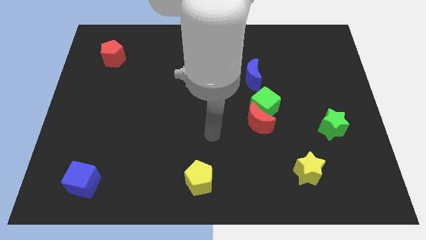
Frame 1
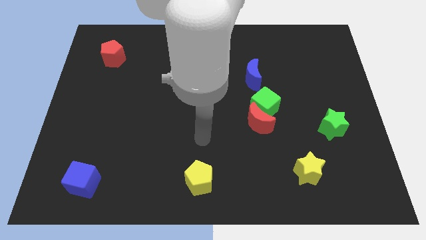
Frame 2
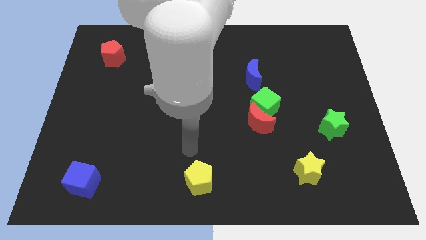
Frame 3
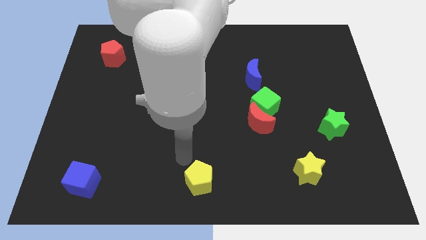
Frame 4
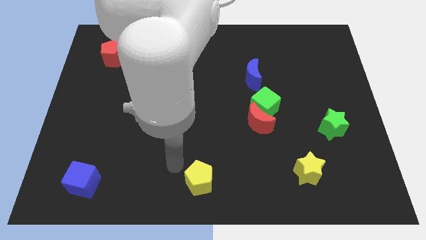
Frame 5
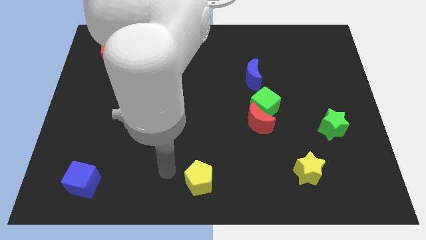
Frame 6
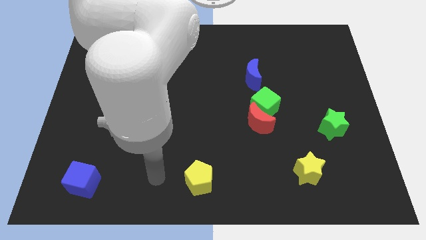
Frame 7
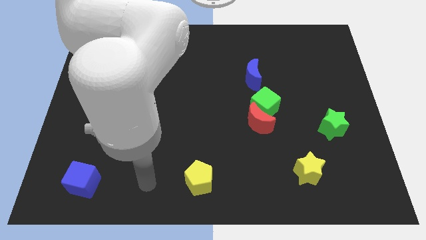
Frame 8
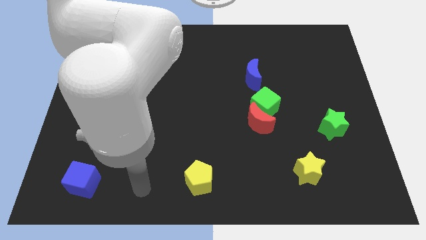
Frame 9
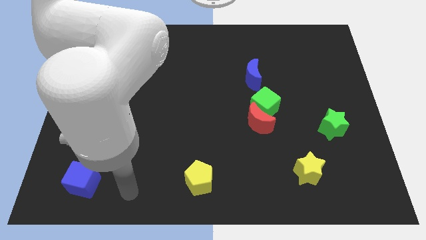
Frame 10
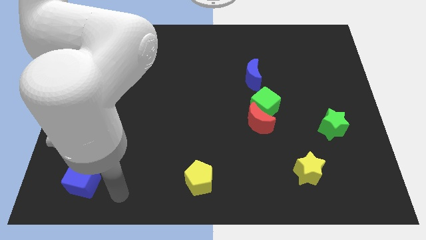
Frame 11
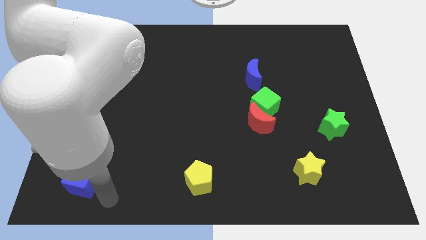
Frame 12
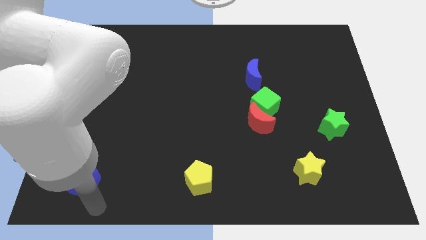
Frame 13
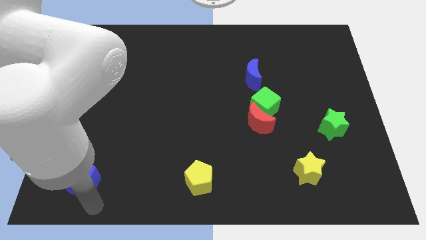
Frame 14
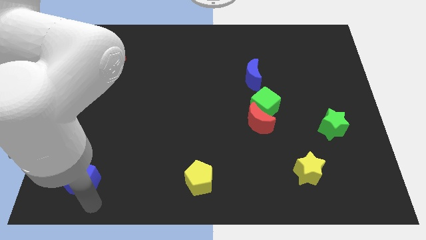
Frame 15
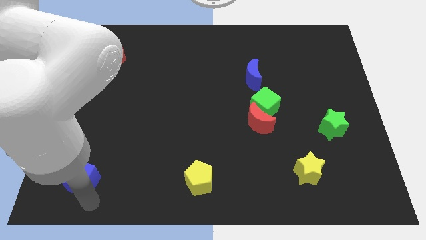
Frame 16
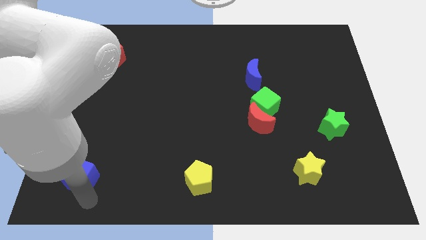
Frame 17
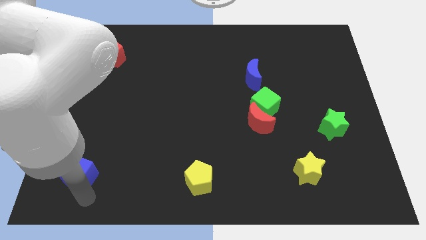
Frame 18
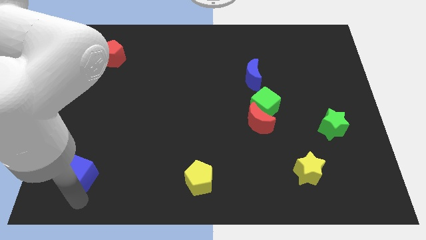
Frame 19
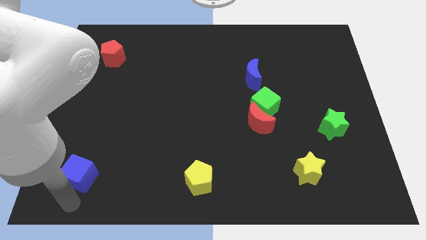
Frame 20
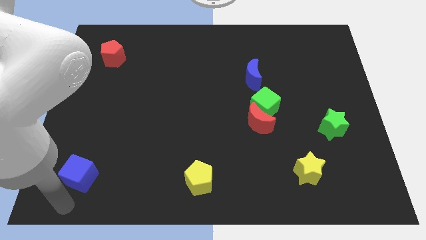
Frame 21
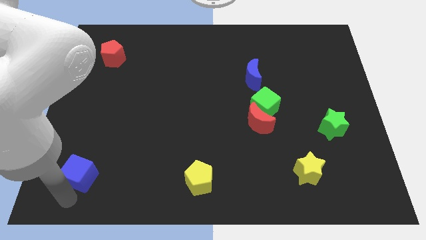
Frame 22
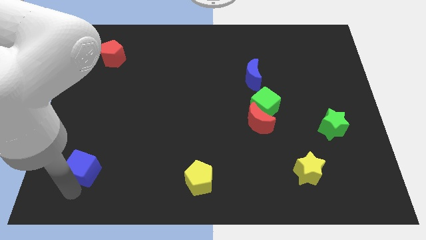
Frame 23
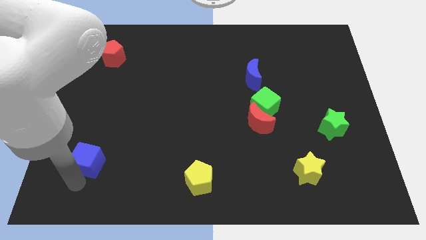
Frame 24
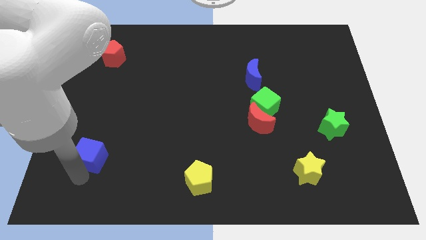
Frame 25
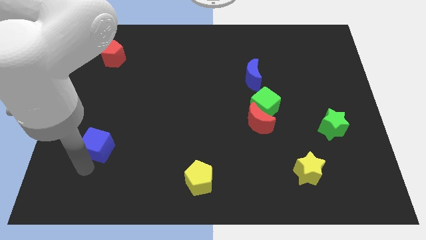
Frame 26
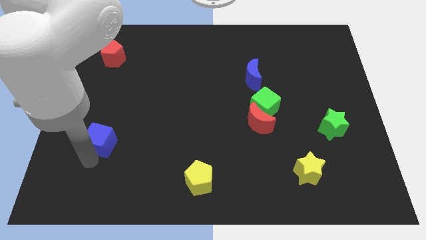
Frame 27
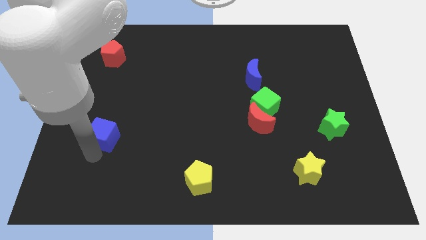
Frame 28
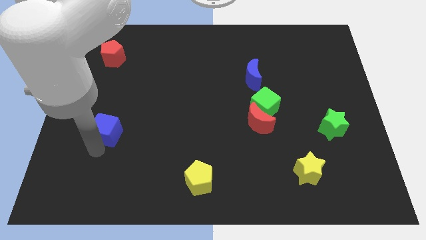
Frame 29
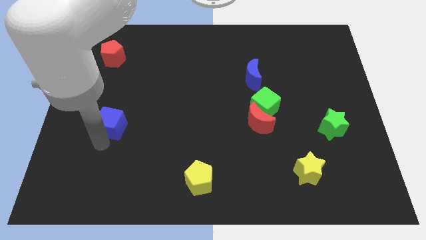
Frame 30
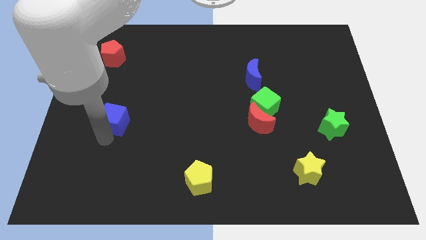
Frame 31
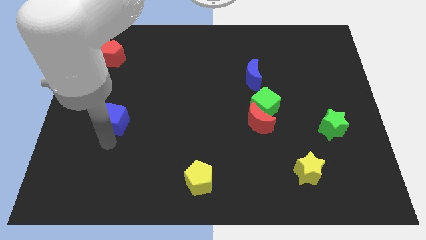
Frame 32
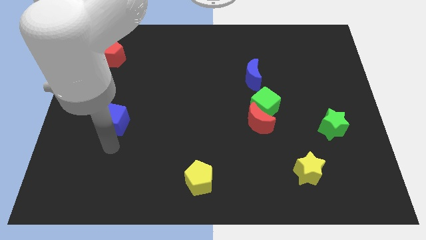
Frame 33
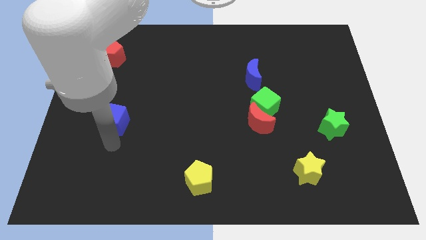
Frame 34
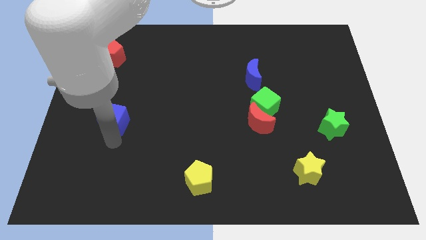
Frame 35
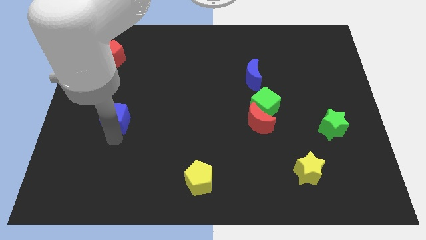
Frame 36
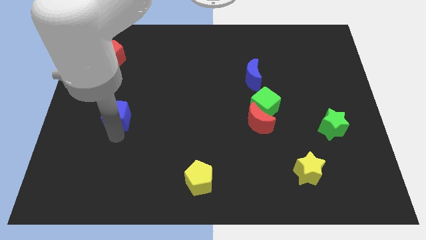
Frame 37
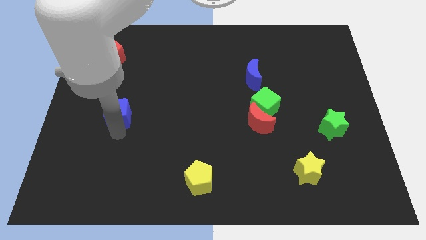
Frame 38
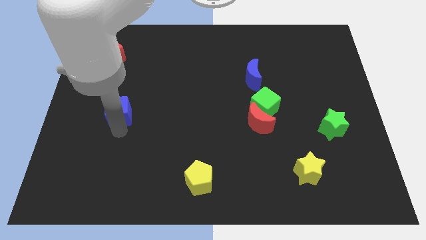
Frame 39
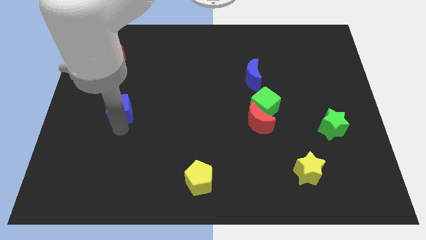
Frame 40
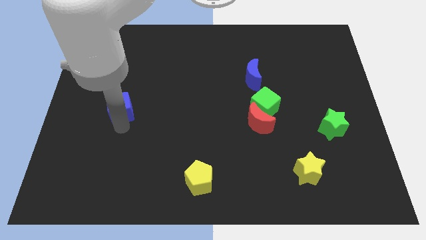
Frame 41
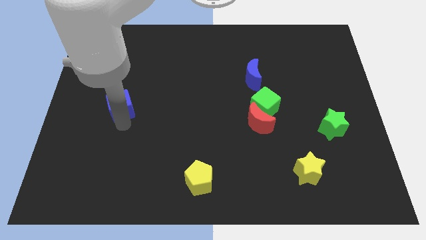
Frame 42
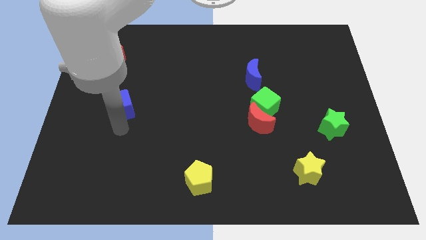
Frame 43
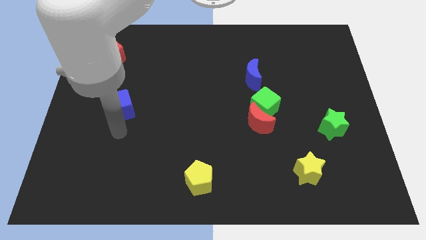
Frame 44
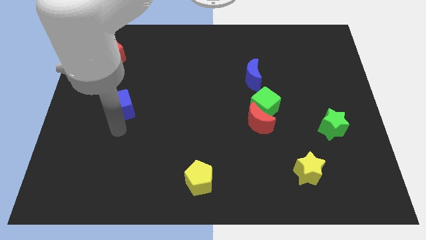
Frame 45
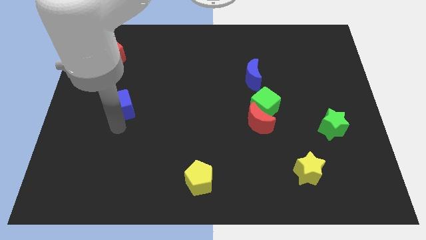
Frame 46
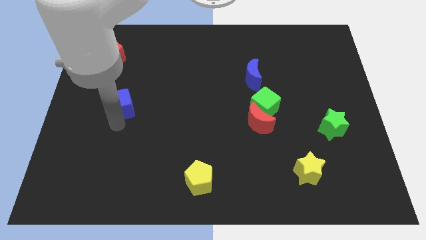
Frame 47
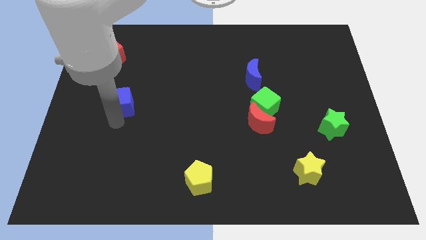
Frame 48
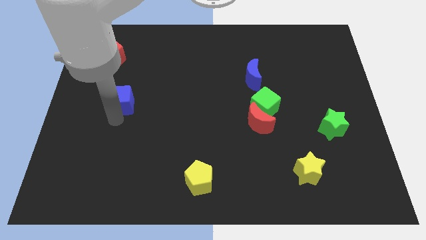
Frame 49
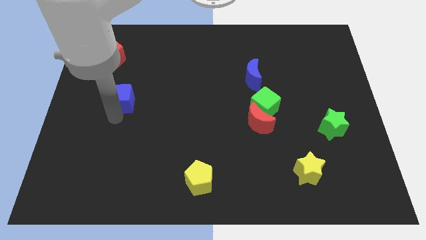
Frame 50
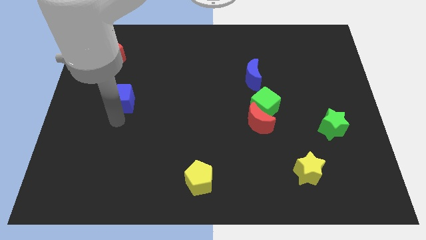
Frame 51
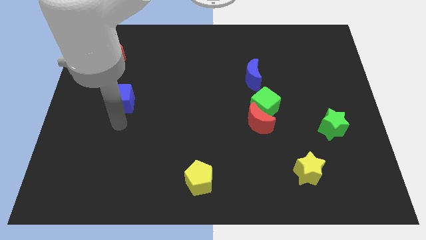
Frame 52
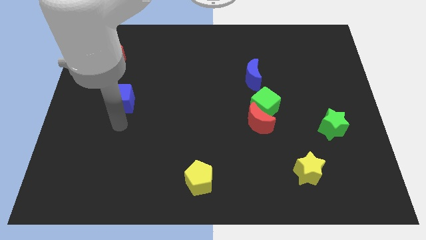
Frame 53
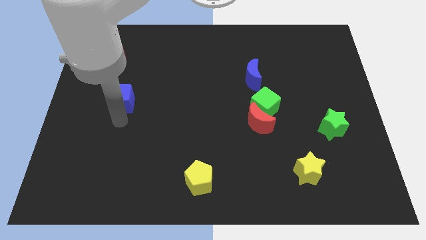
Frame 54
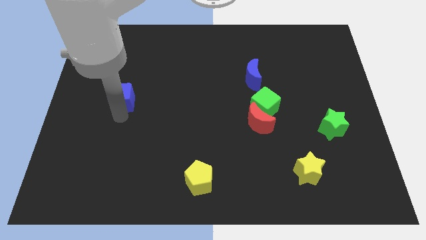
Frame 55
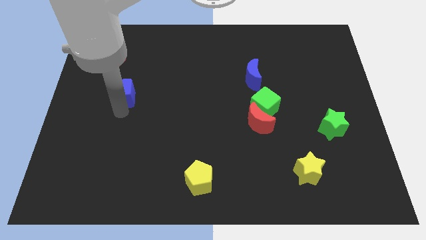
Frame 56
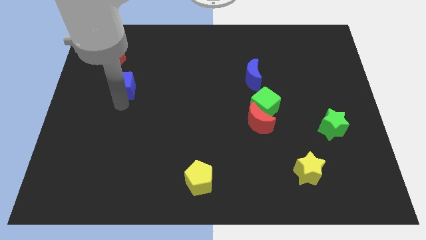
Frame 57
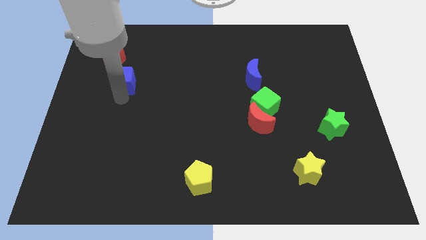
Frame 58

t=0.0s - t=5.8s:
slide the blue cube to the bottom right of the red pentagon

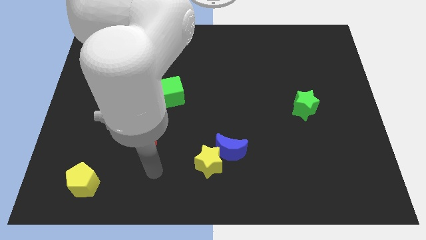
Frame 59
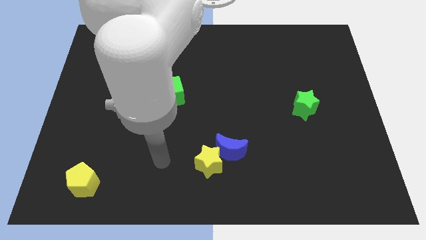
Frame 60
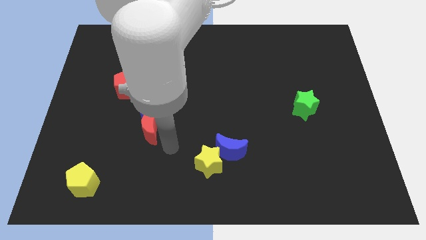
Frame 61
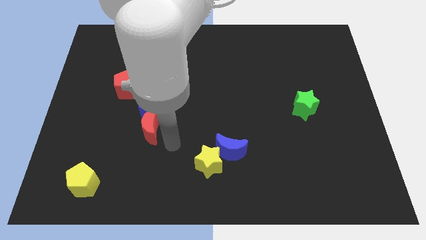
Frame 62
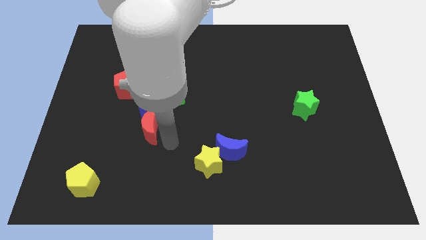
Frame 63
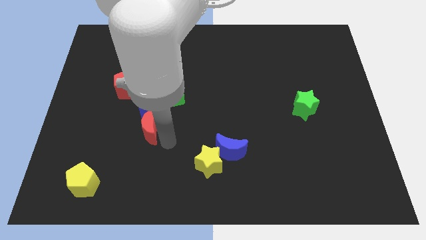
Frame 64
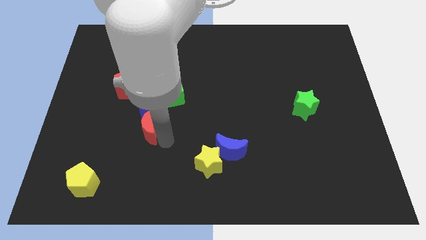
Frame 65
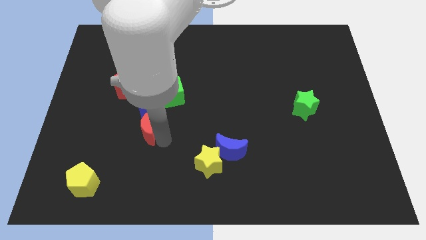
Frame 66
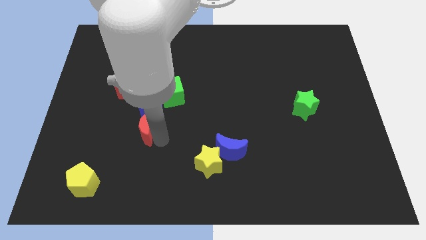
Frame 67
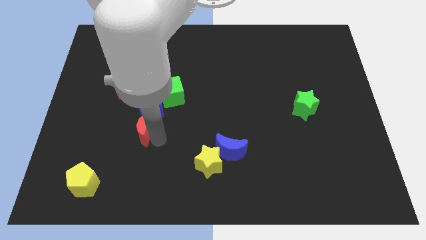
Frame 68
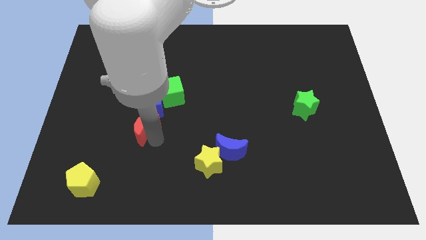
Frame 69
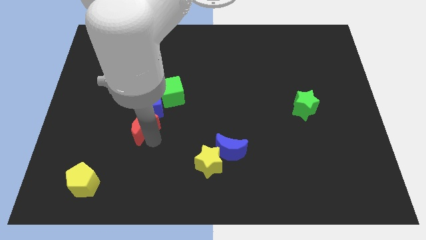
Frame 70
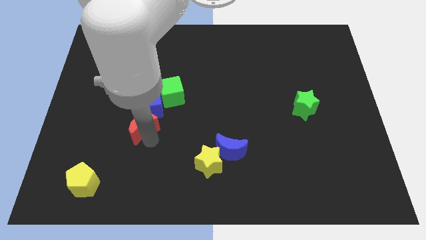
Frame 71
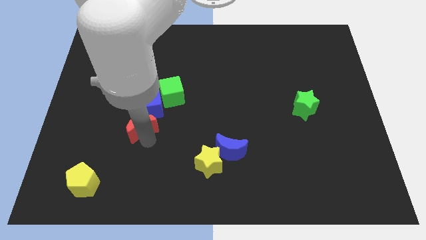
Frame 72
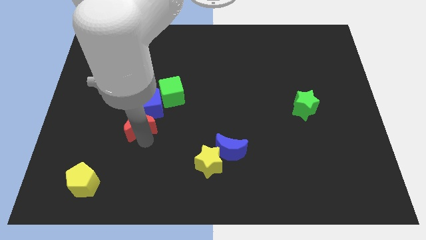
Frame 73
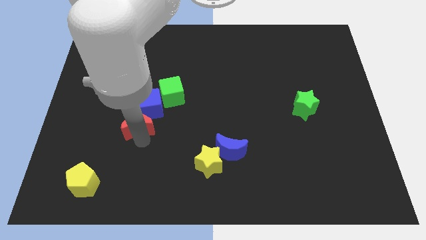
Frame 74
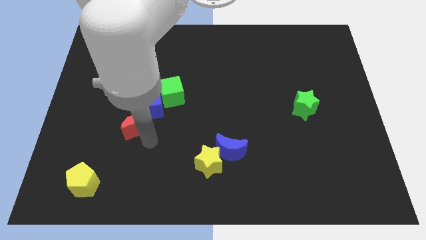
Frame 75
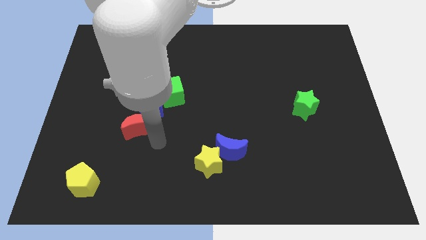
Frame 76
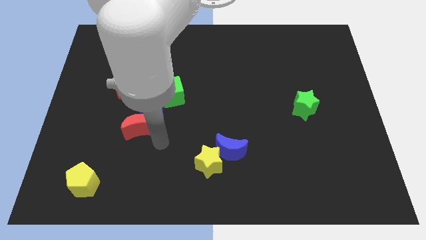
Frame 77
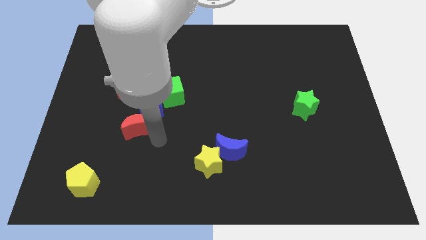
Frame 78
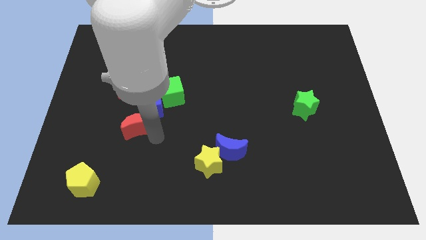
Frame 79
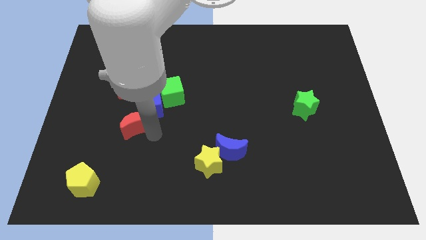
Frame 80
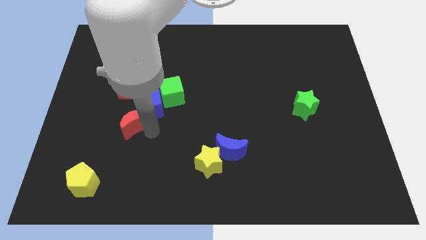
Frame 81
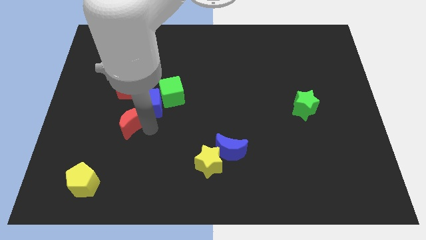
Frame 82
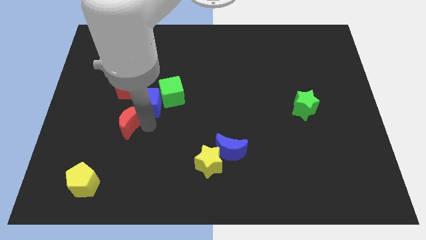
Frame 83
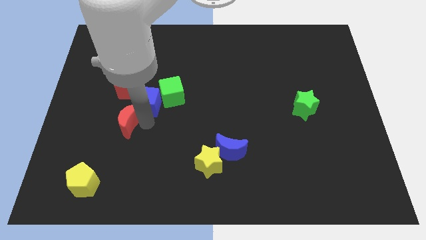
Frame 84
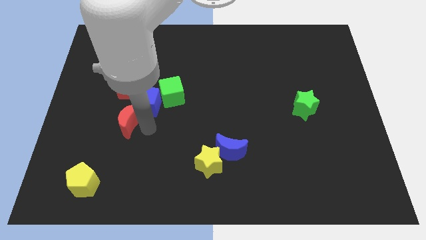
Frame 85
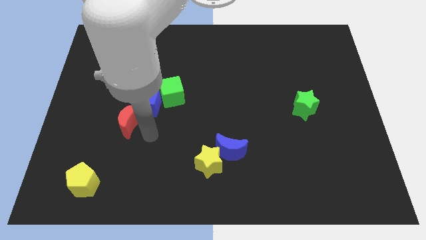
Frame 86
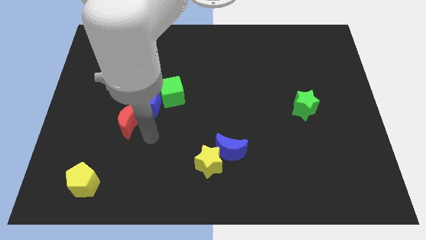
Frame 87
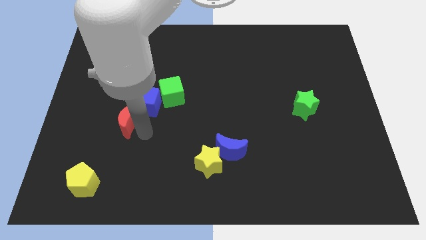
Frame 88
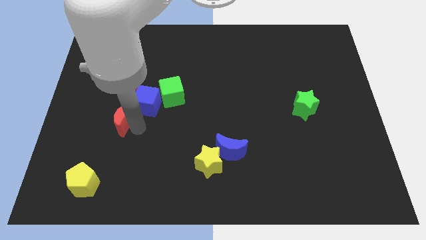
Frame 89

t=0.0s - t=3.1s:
slide the red moon to the left side of the blue cube
